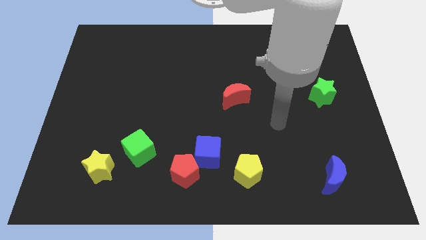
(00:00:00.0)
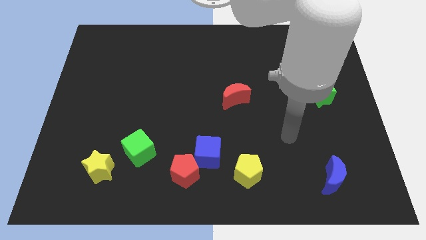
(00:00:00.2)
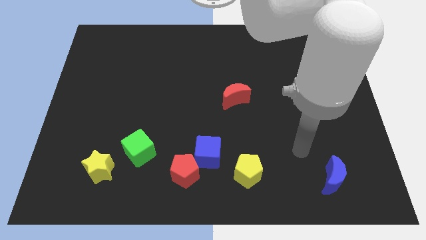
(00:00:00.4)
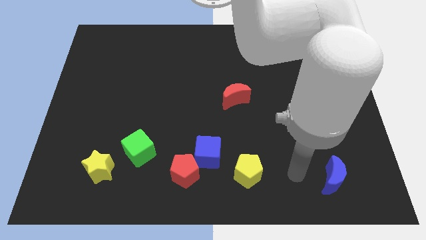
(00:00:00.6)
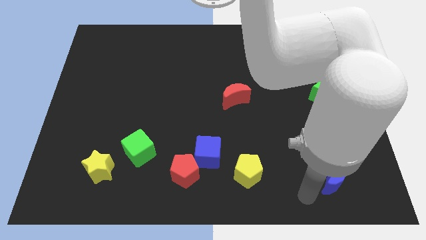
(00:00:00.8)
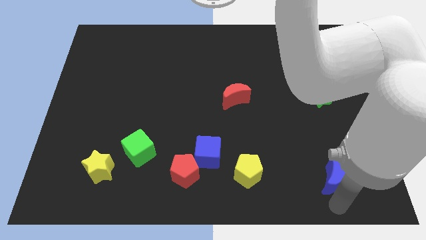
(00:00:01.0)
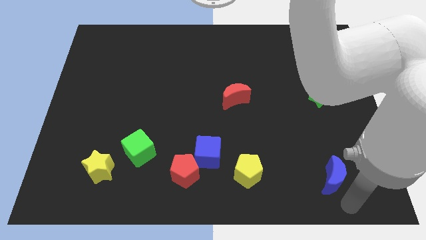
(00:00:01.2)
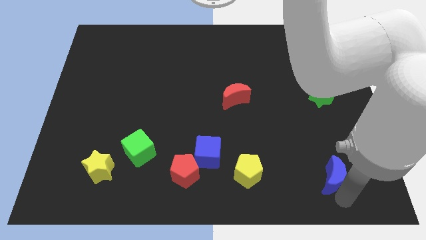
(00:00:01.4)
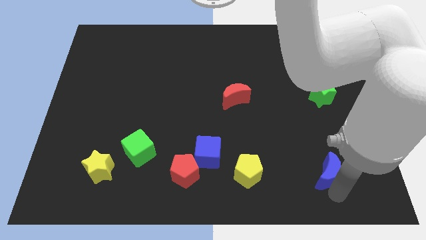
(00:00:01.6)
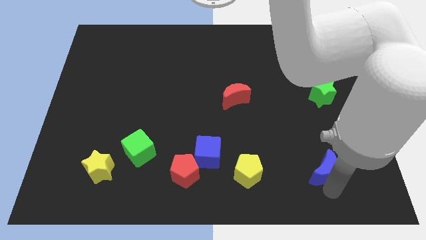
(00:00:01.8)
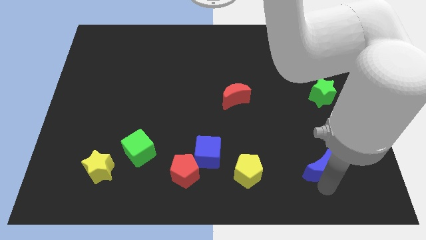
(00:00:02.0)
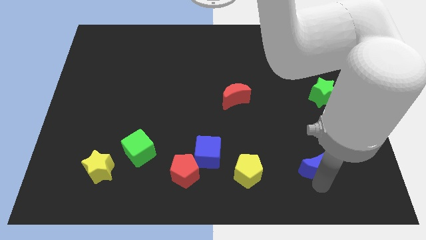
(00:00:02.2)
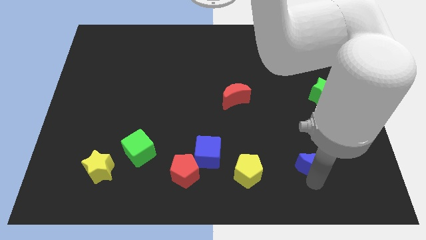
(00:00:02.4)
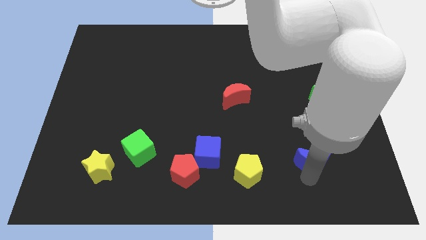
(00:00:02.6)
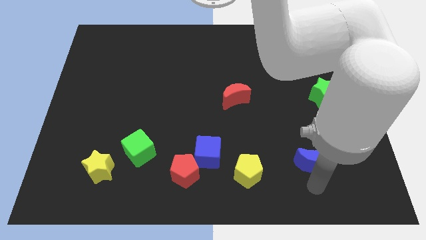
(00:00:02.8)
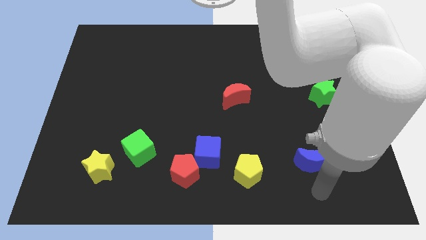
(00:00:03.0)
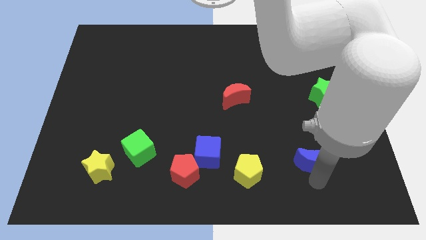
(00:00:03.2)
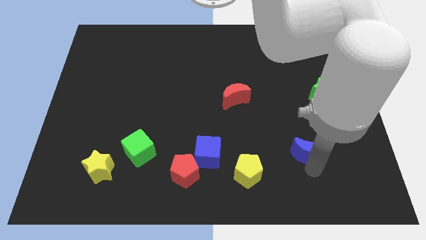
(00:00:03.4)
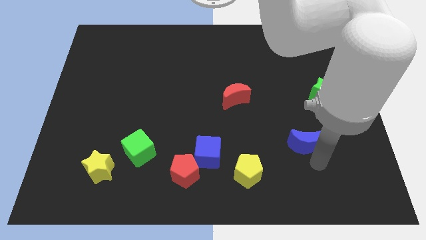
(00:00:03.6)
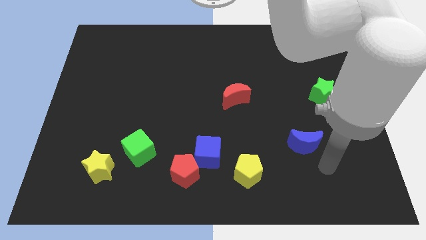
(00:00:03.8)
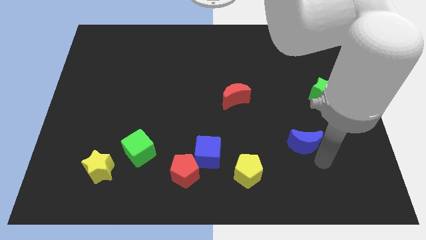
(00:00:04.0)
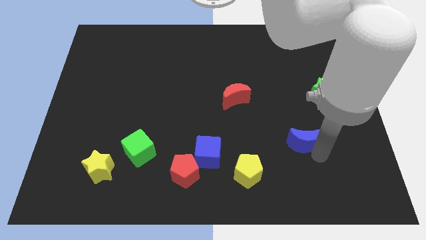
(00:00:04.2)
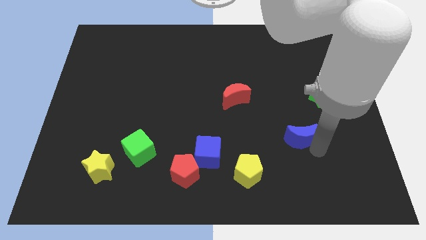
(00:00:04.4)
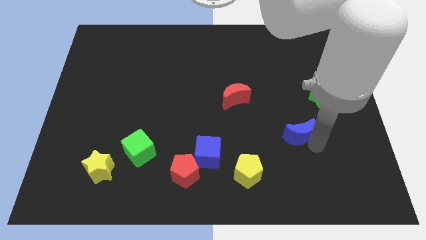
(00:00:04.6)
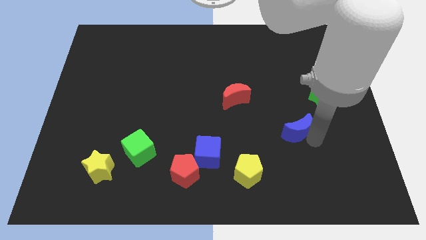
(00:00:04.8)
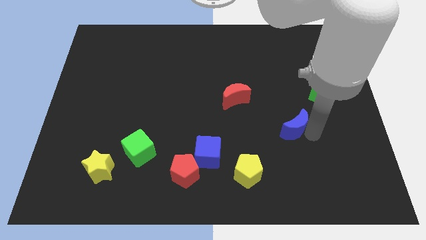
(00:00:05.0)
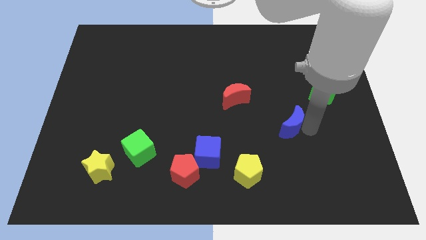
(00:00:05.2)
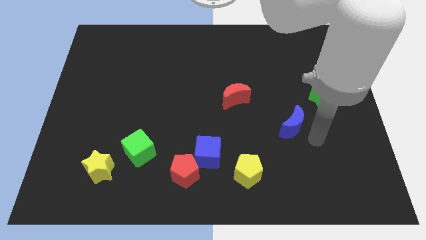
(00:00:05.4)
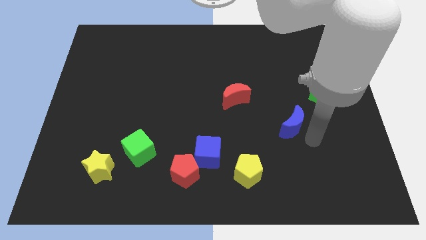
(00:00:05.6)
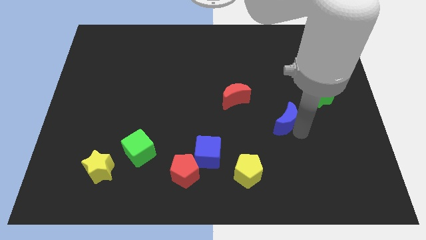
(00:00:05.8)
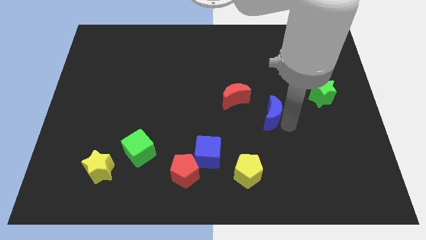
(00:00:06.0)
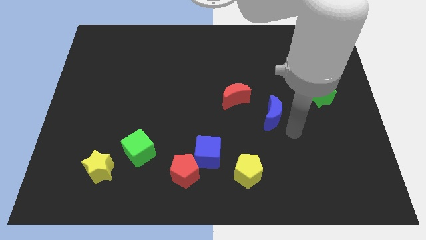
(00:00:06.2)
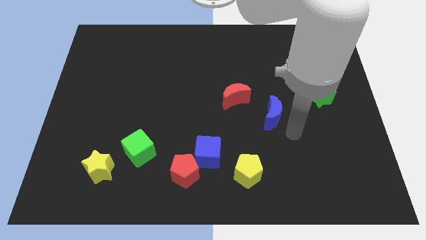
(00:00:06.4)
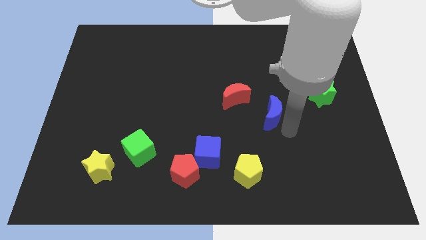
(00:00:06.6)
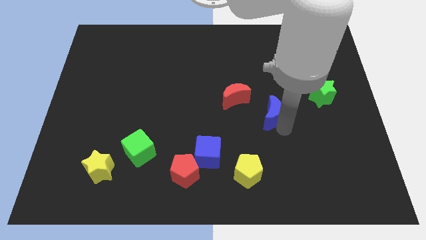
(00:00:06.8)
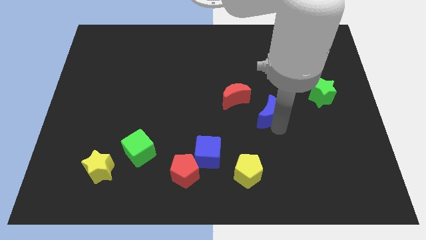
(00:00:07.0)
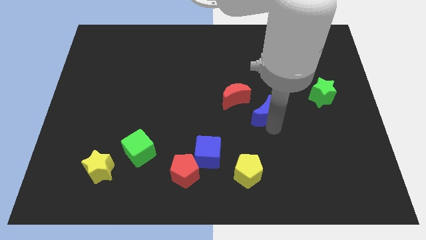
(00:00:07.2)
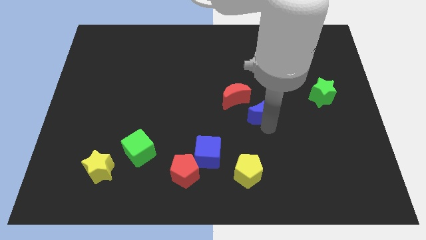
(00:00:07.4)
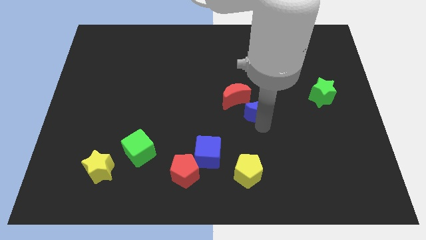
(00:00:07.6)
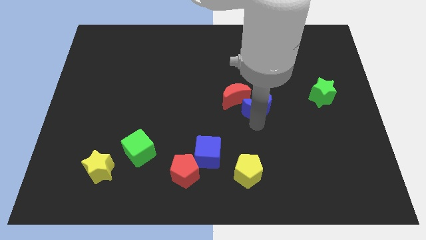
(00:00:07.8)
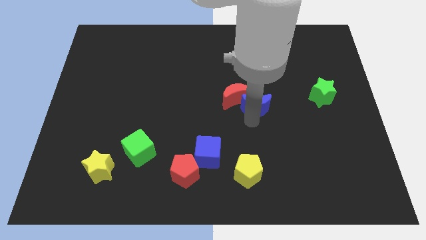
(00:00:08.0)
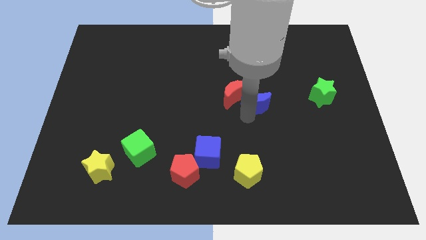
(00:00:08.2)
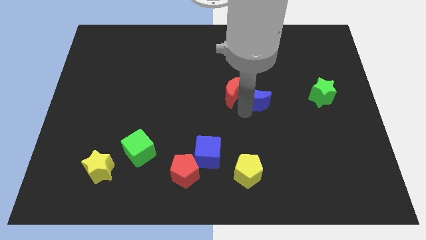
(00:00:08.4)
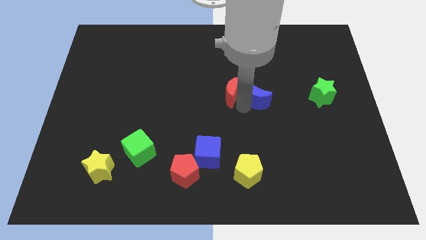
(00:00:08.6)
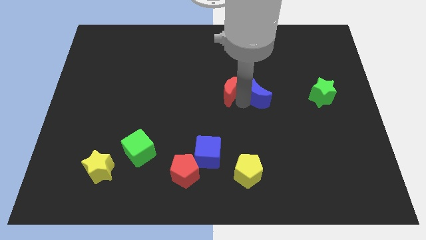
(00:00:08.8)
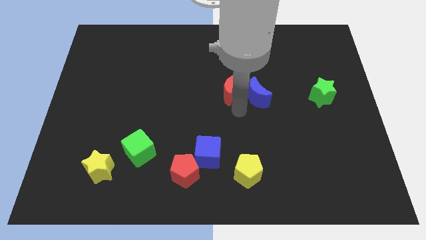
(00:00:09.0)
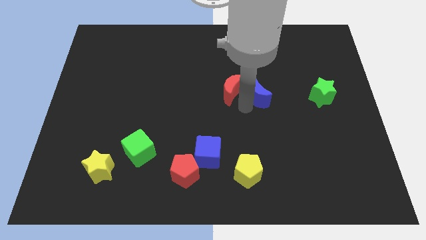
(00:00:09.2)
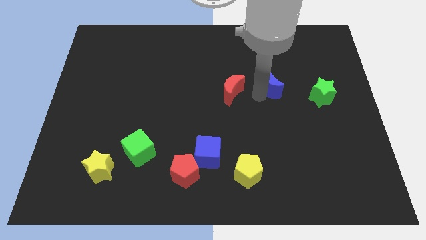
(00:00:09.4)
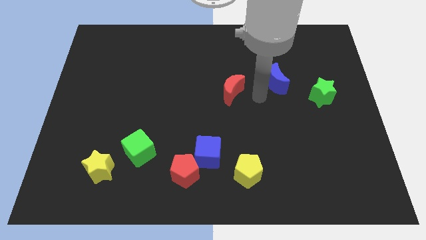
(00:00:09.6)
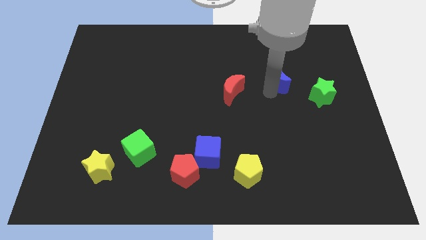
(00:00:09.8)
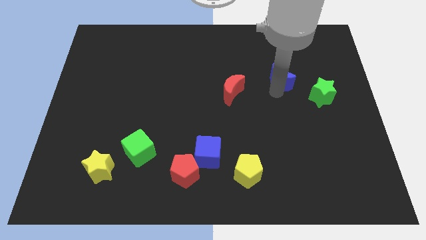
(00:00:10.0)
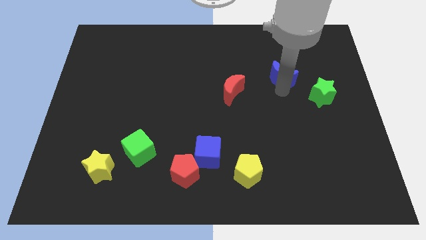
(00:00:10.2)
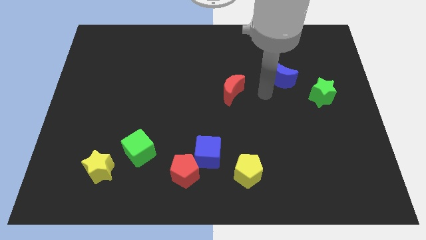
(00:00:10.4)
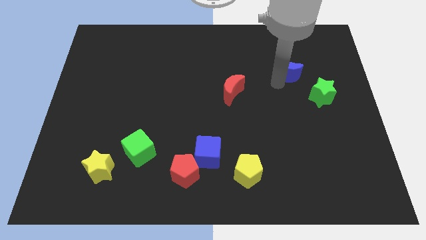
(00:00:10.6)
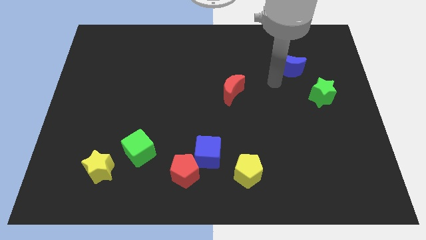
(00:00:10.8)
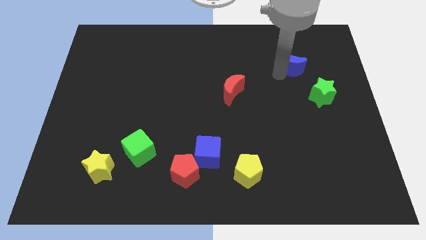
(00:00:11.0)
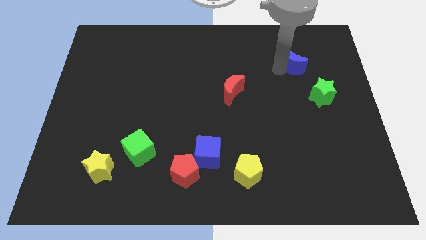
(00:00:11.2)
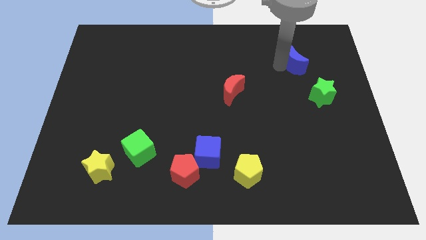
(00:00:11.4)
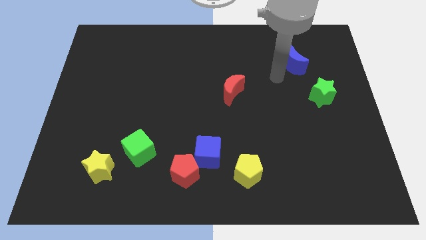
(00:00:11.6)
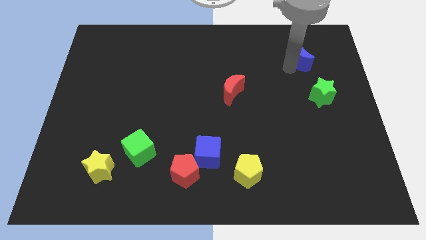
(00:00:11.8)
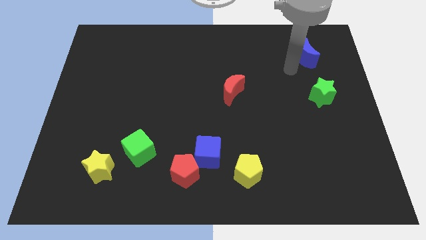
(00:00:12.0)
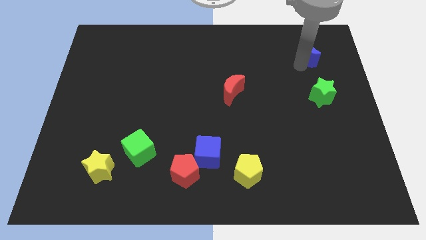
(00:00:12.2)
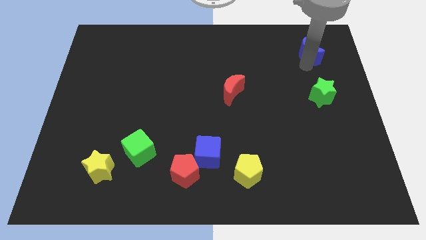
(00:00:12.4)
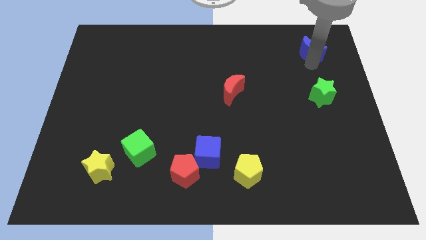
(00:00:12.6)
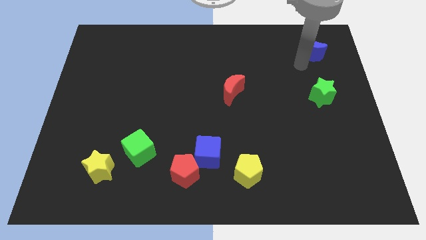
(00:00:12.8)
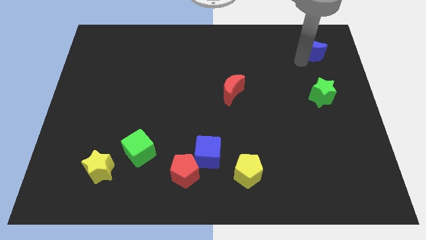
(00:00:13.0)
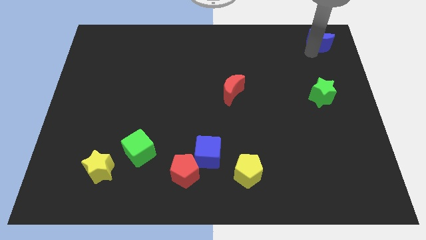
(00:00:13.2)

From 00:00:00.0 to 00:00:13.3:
move the blue moon to the top right of the board
